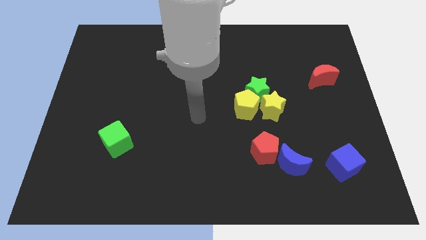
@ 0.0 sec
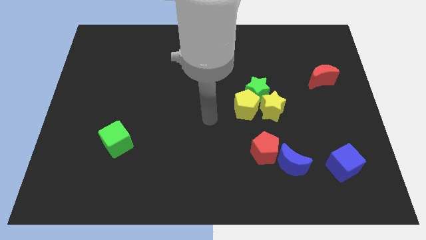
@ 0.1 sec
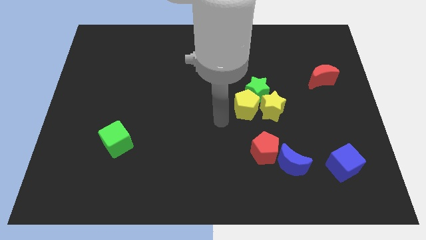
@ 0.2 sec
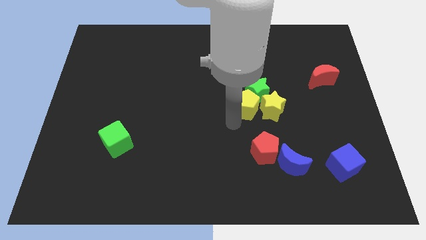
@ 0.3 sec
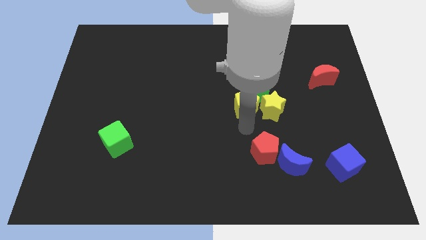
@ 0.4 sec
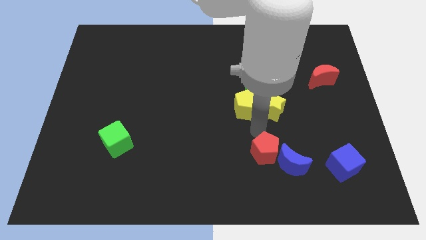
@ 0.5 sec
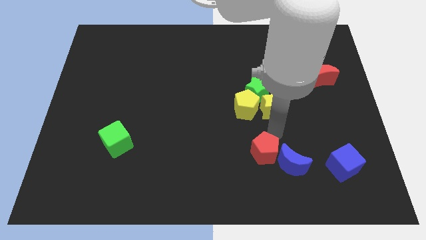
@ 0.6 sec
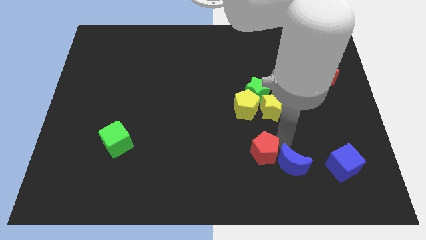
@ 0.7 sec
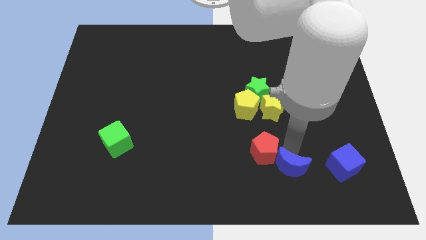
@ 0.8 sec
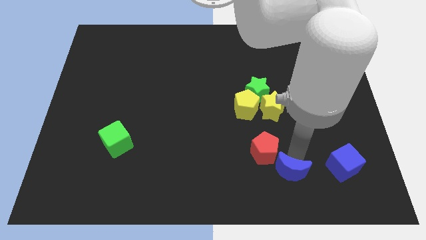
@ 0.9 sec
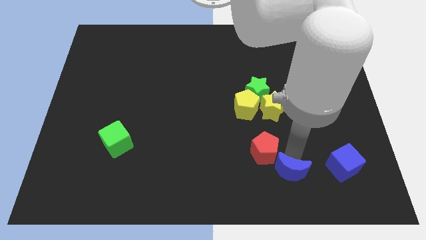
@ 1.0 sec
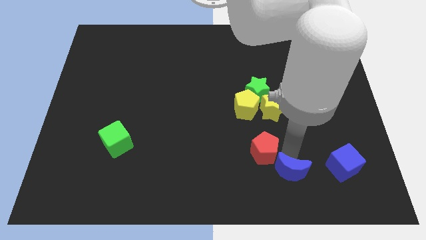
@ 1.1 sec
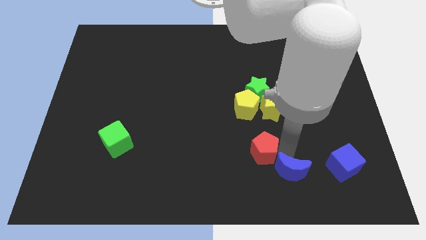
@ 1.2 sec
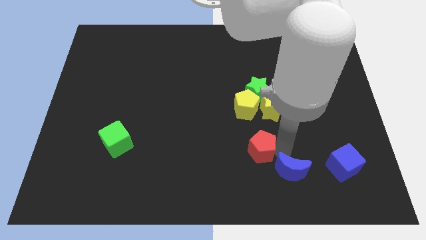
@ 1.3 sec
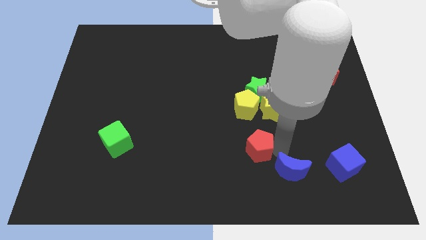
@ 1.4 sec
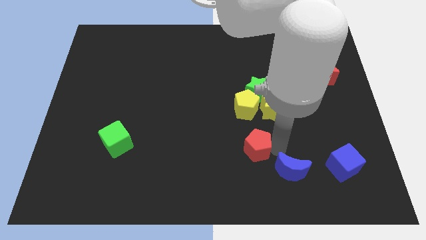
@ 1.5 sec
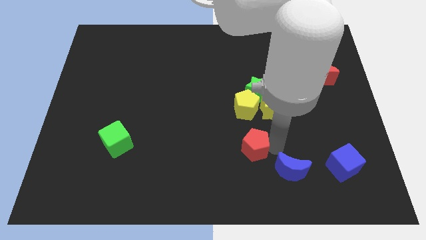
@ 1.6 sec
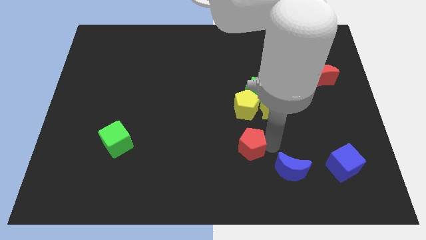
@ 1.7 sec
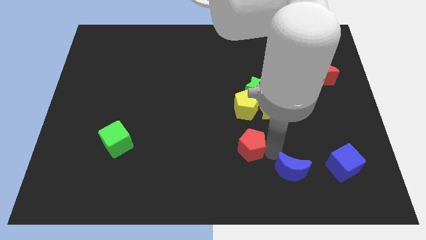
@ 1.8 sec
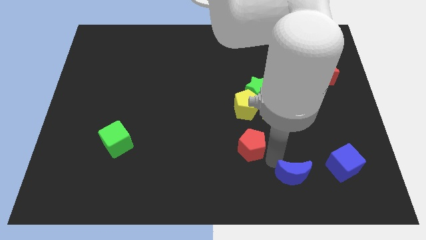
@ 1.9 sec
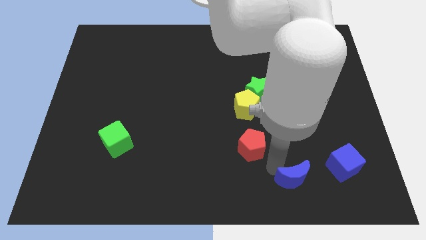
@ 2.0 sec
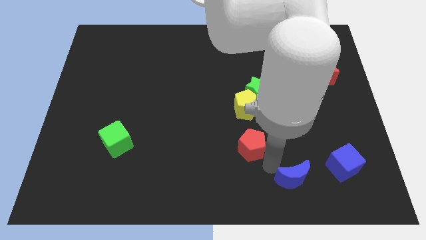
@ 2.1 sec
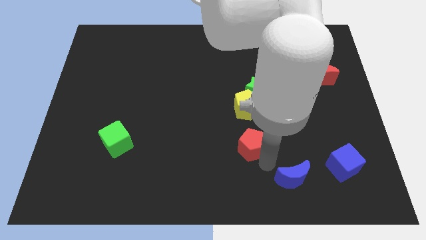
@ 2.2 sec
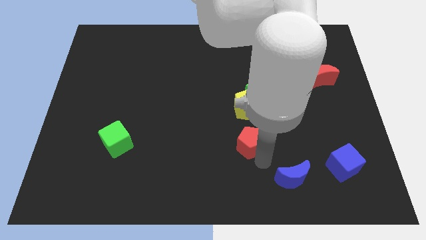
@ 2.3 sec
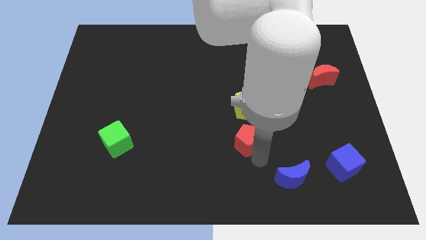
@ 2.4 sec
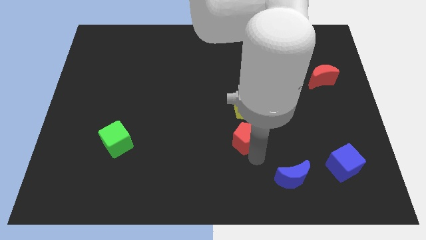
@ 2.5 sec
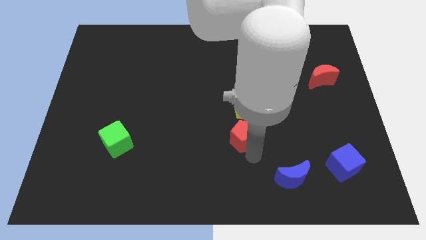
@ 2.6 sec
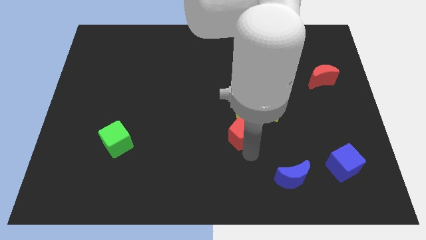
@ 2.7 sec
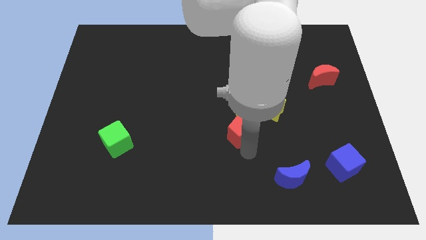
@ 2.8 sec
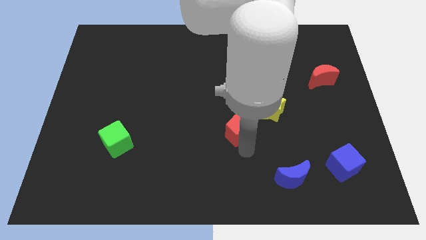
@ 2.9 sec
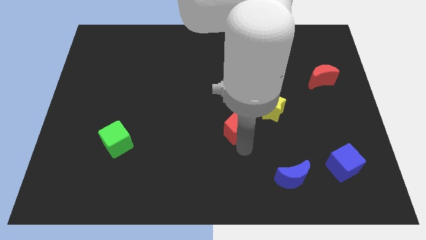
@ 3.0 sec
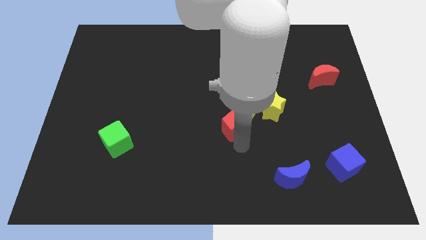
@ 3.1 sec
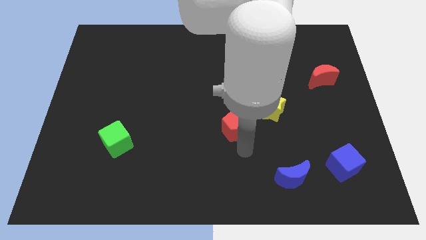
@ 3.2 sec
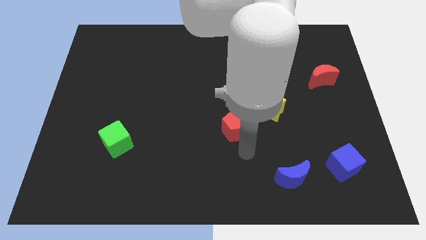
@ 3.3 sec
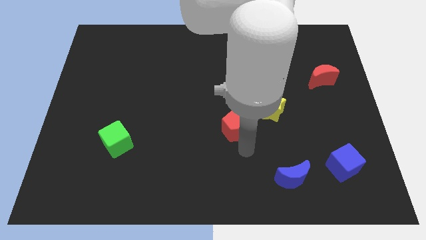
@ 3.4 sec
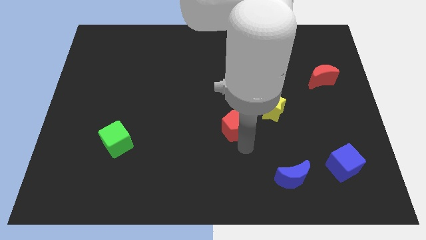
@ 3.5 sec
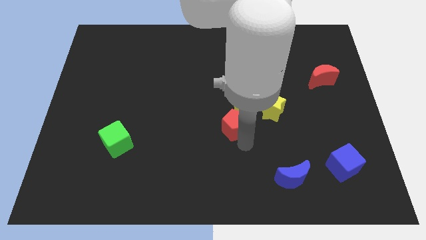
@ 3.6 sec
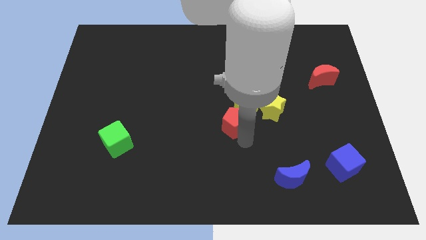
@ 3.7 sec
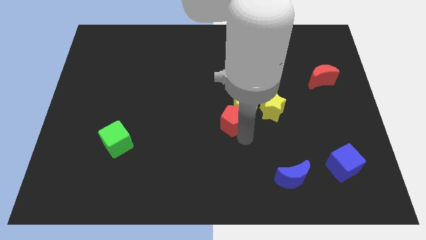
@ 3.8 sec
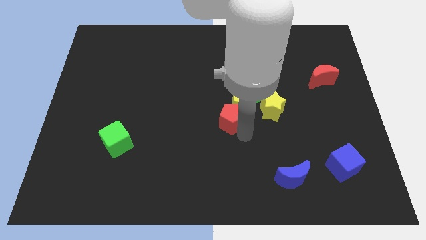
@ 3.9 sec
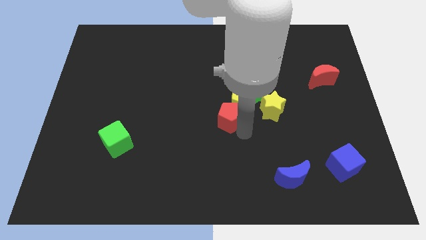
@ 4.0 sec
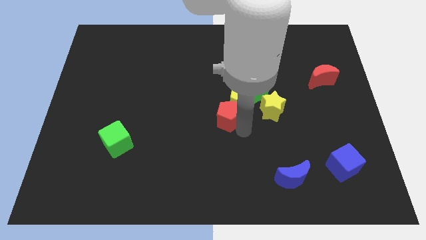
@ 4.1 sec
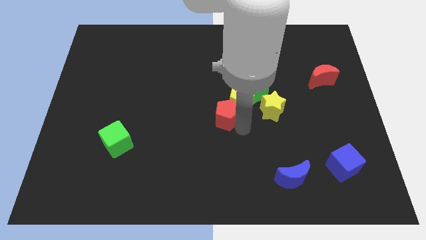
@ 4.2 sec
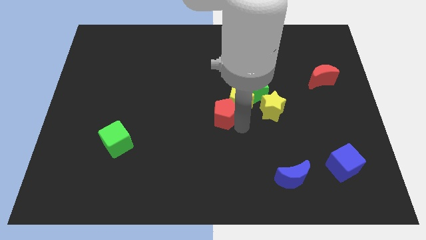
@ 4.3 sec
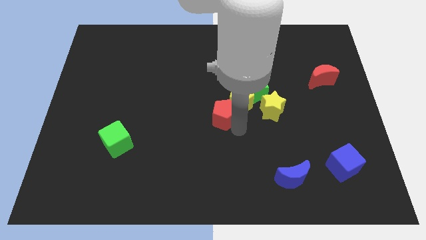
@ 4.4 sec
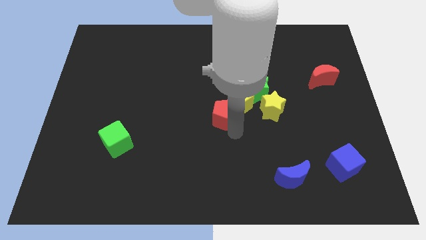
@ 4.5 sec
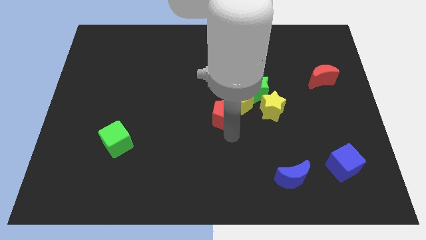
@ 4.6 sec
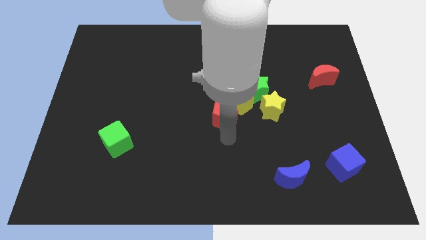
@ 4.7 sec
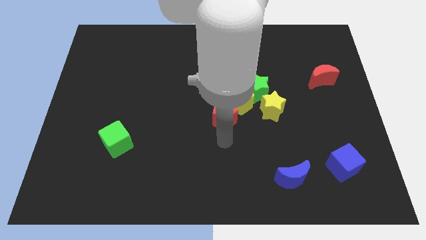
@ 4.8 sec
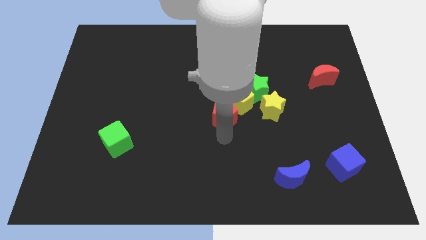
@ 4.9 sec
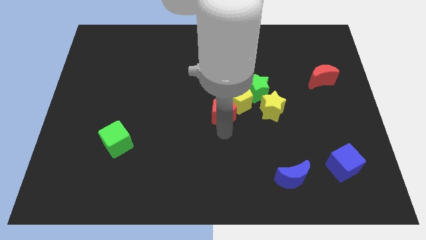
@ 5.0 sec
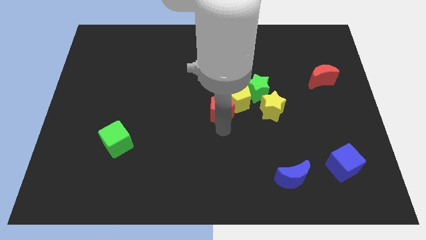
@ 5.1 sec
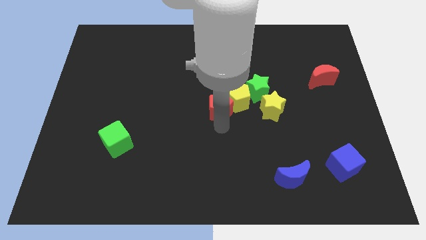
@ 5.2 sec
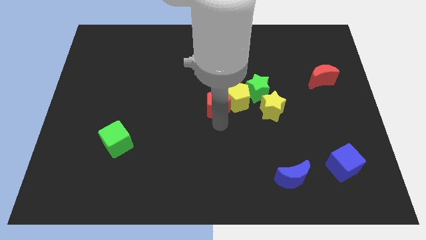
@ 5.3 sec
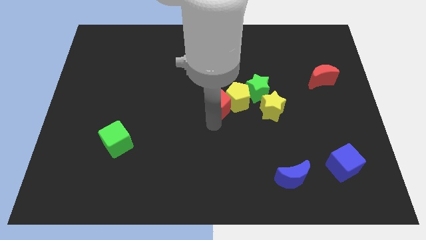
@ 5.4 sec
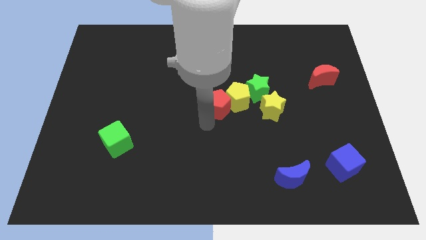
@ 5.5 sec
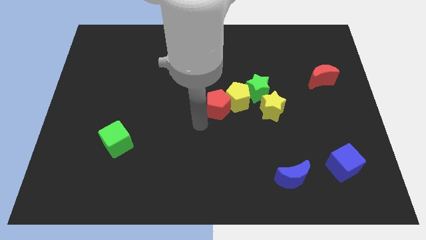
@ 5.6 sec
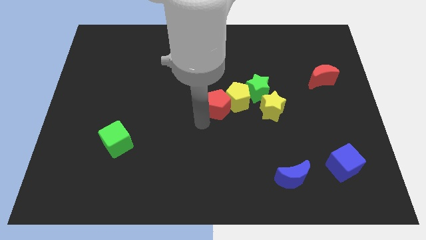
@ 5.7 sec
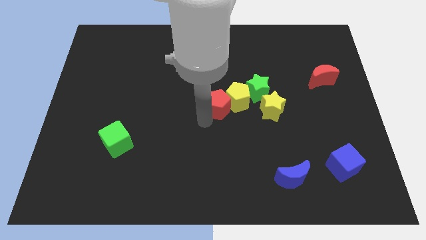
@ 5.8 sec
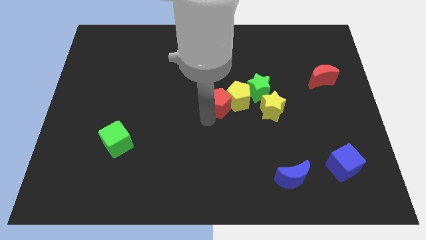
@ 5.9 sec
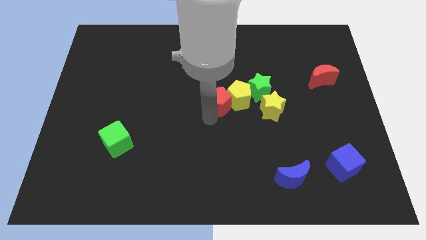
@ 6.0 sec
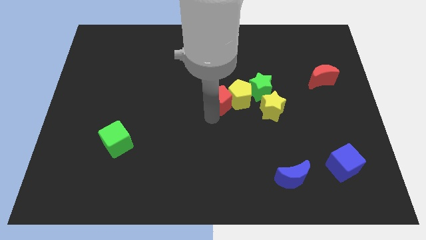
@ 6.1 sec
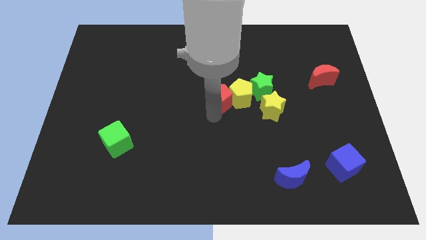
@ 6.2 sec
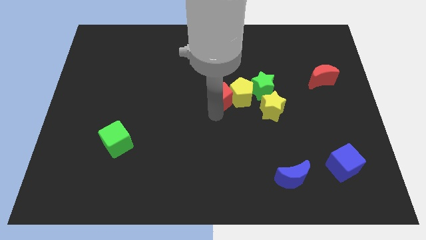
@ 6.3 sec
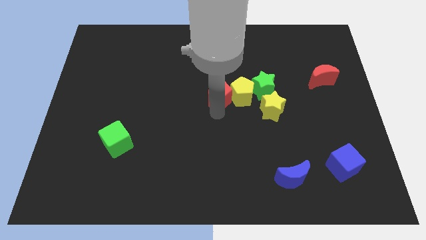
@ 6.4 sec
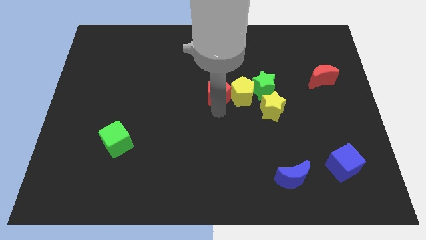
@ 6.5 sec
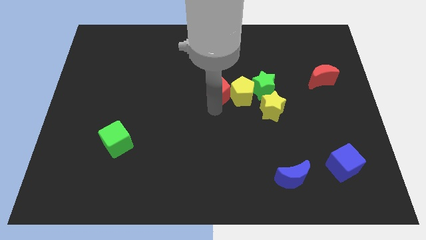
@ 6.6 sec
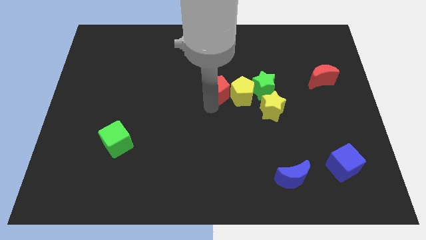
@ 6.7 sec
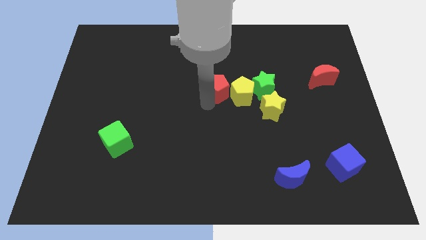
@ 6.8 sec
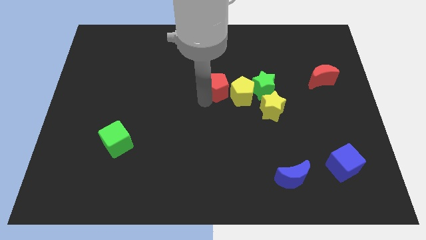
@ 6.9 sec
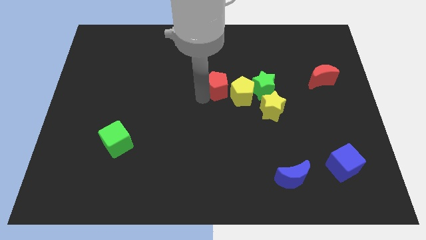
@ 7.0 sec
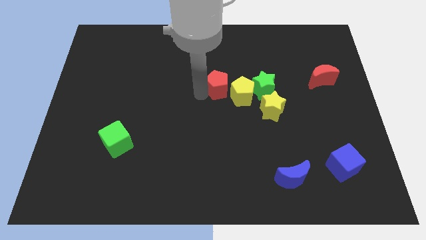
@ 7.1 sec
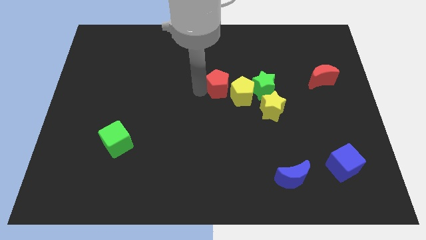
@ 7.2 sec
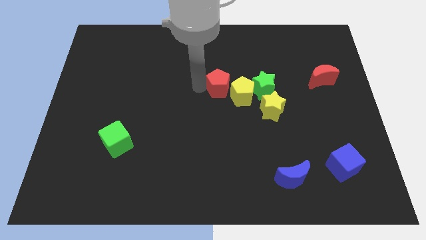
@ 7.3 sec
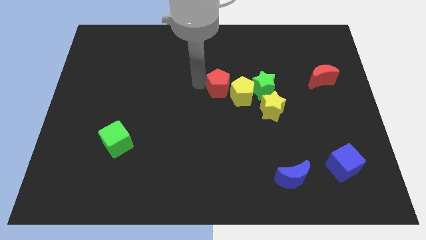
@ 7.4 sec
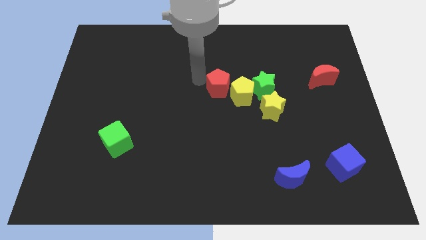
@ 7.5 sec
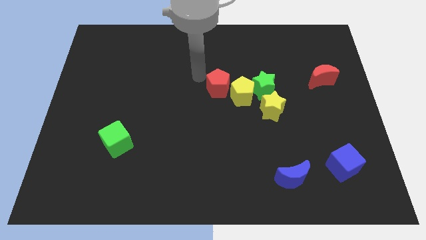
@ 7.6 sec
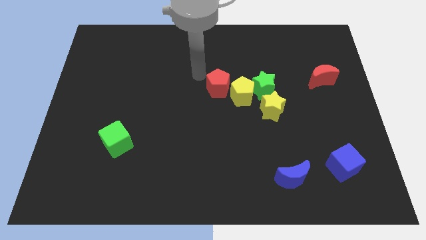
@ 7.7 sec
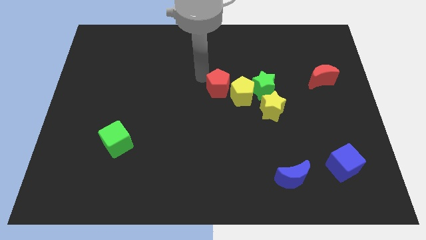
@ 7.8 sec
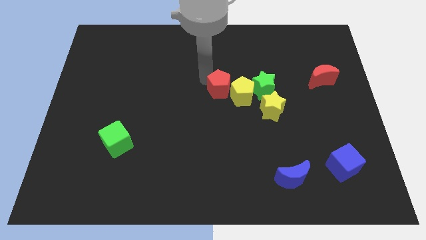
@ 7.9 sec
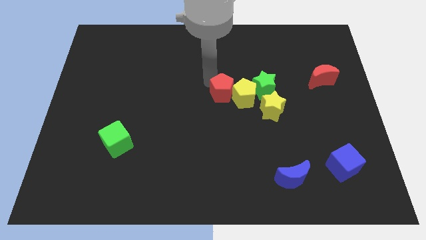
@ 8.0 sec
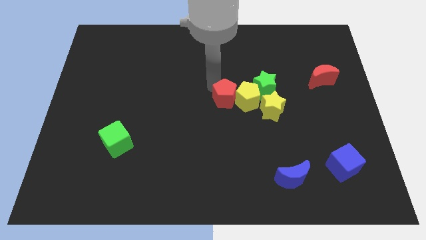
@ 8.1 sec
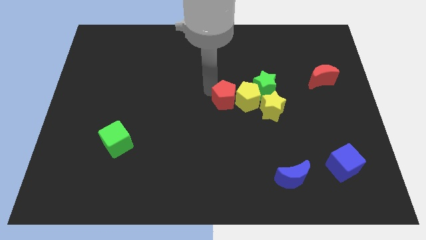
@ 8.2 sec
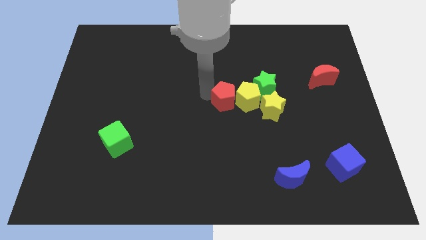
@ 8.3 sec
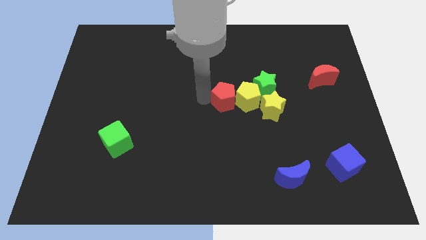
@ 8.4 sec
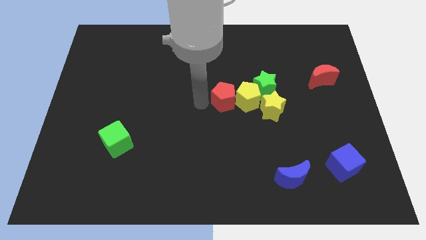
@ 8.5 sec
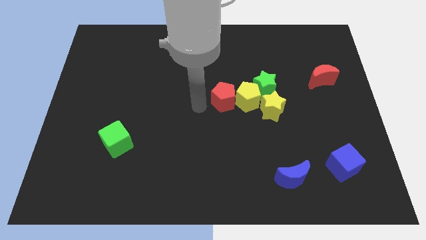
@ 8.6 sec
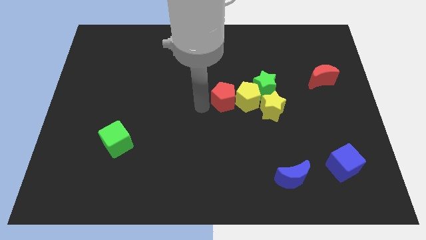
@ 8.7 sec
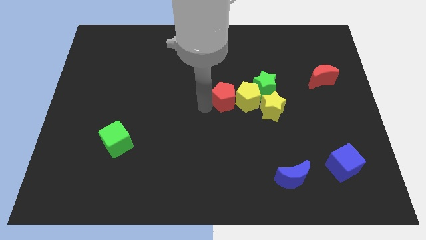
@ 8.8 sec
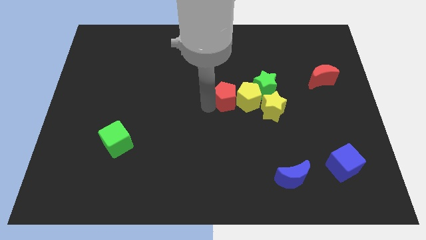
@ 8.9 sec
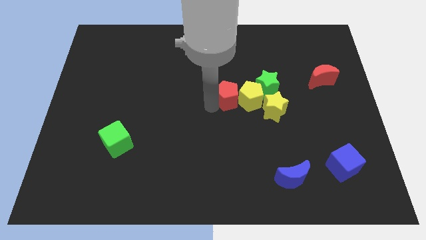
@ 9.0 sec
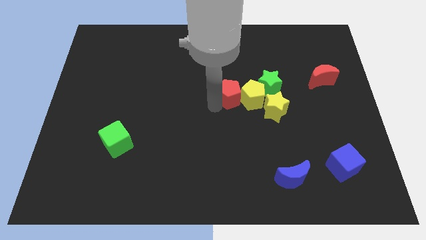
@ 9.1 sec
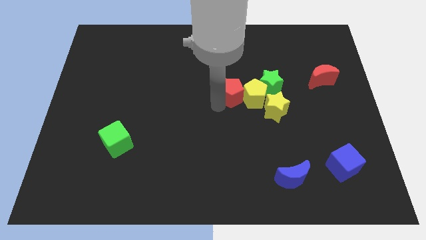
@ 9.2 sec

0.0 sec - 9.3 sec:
move the red pentagon to the top left of the yellow star
